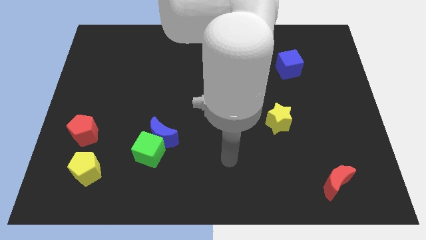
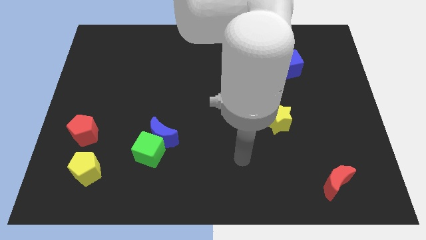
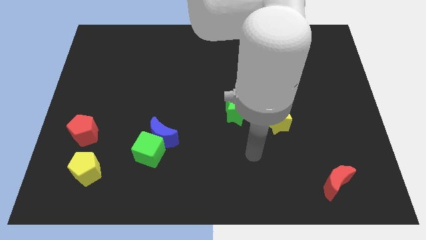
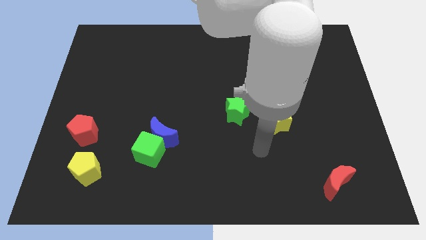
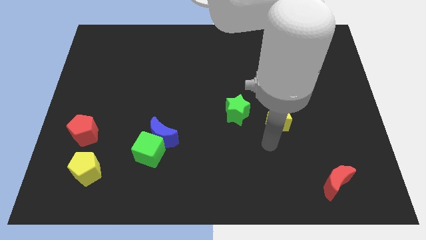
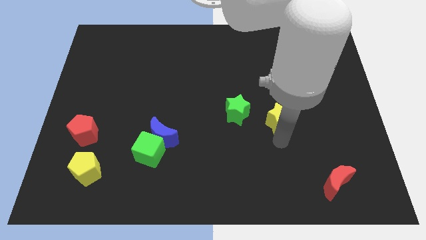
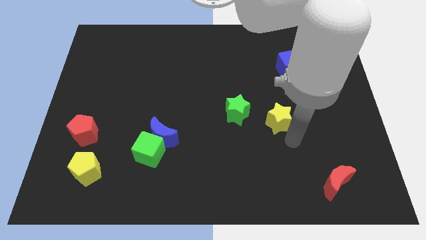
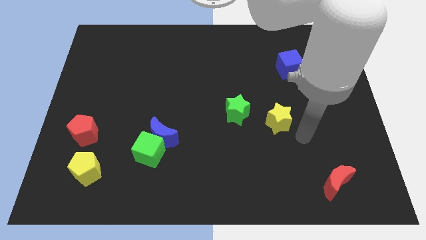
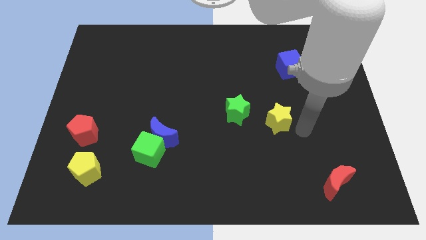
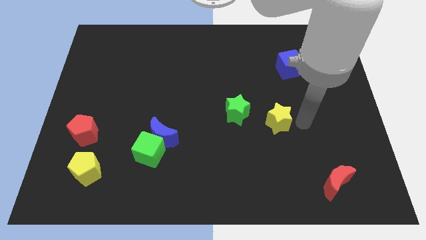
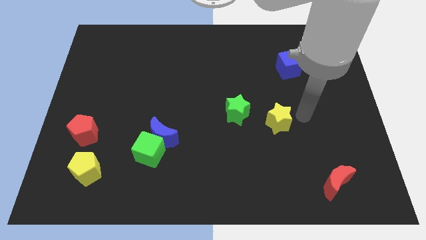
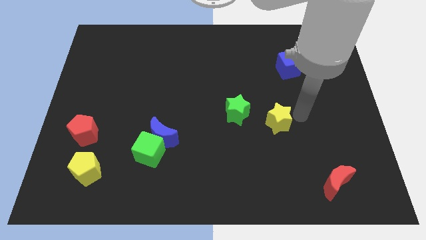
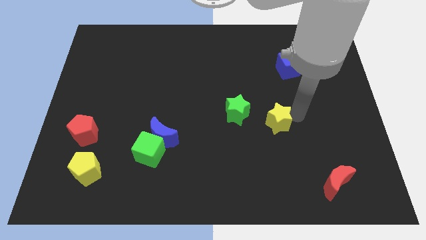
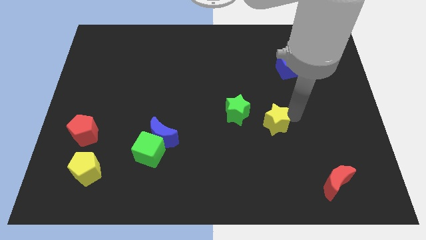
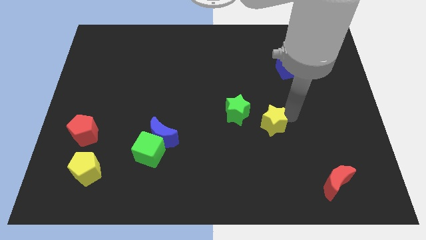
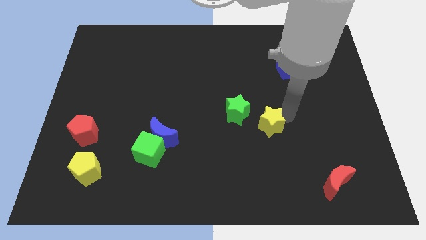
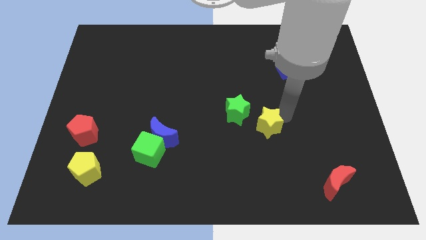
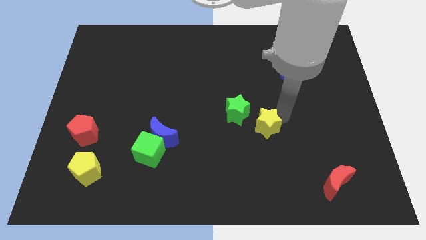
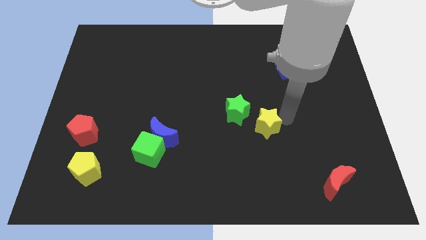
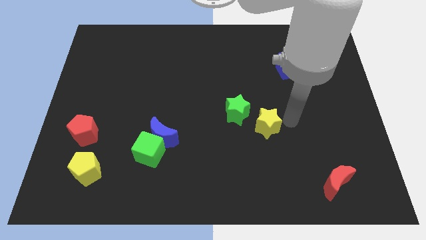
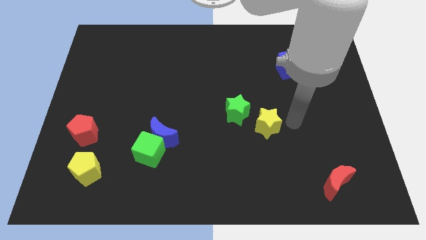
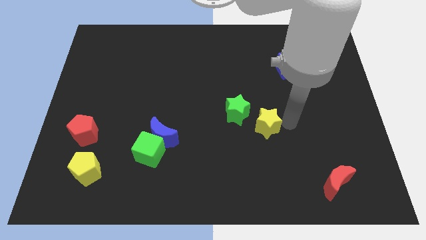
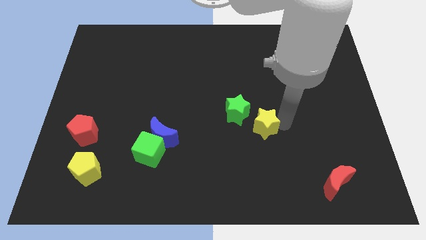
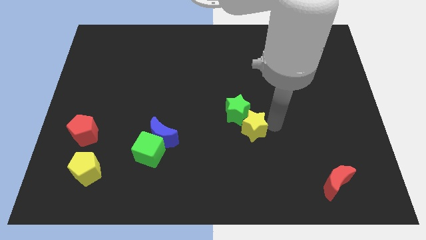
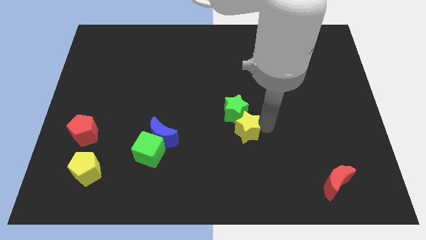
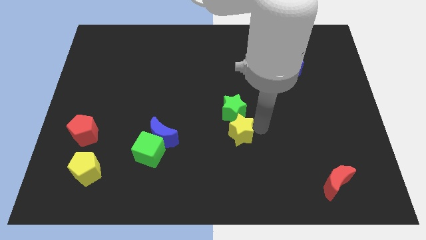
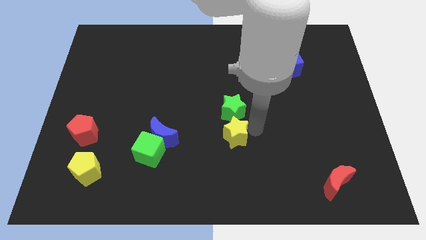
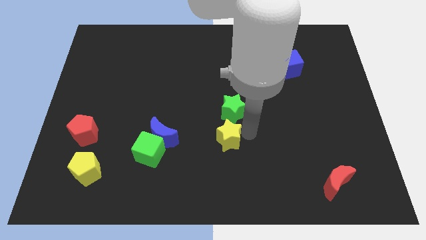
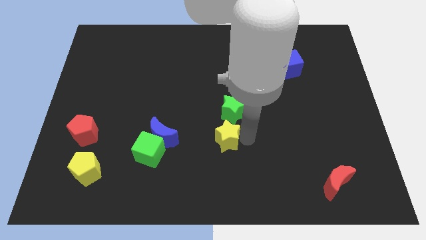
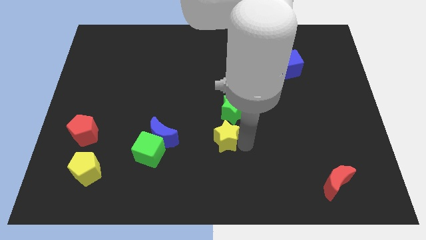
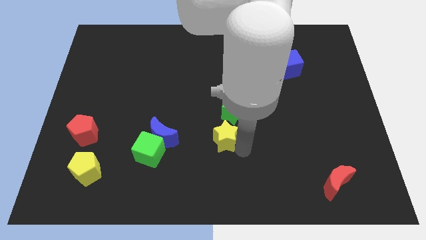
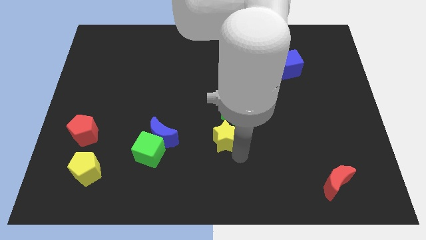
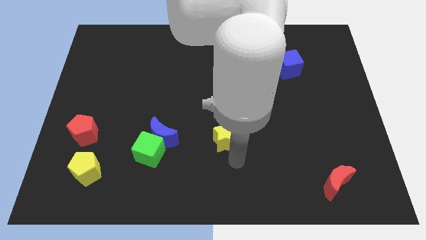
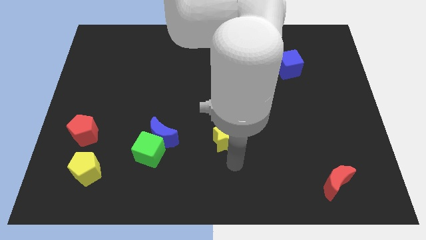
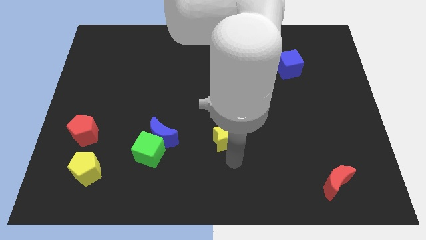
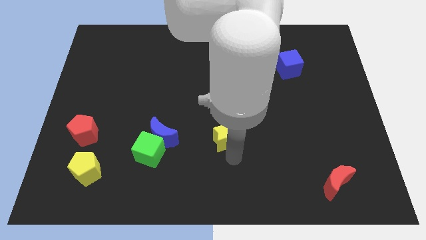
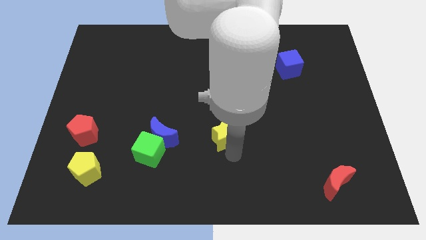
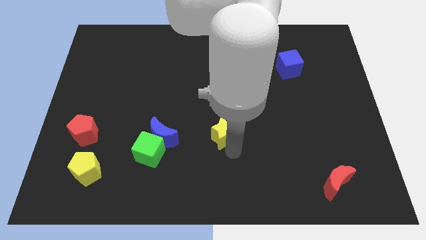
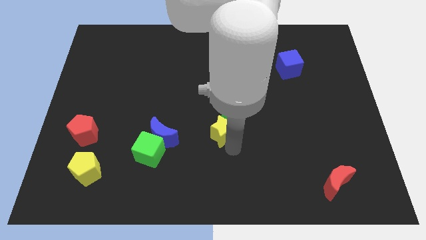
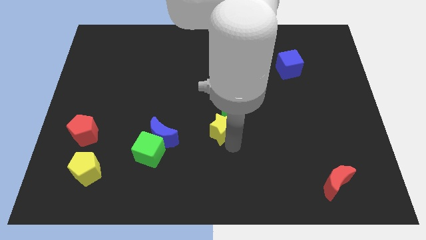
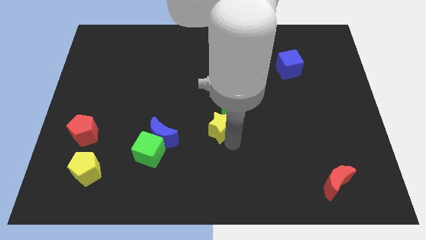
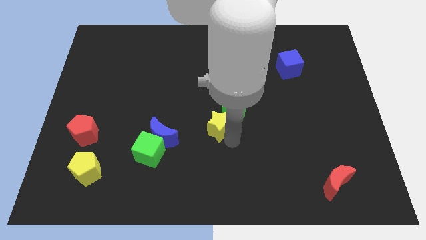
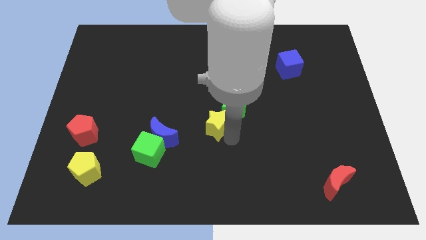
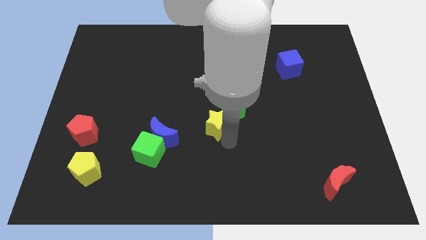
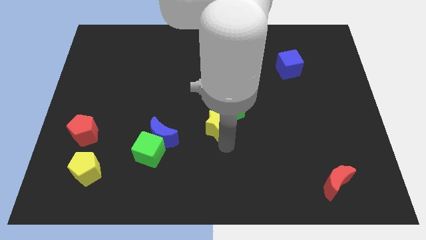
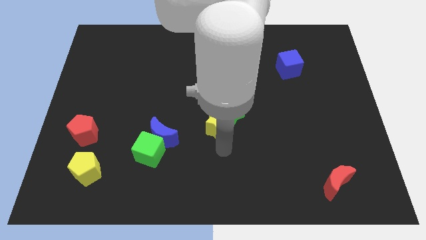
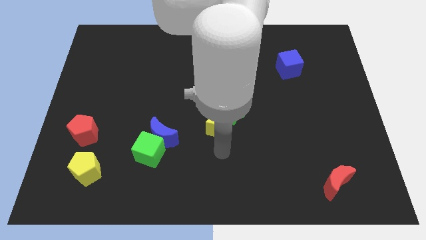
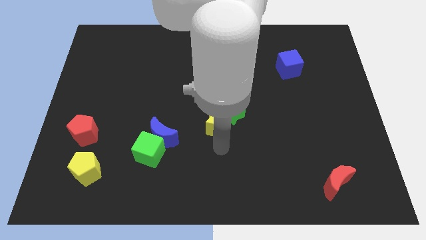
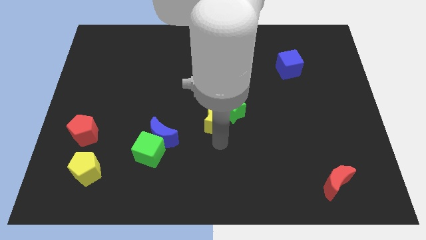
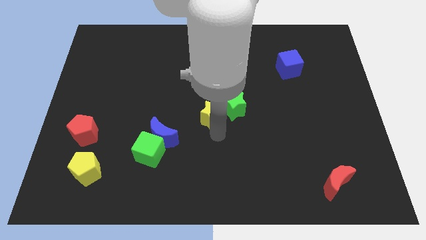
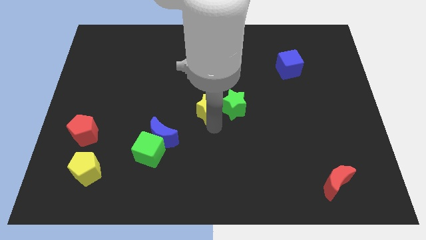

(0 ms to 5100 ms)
move the yellow star diagonally up and to the left of the green star

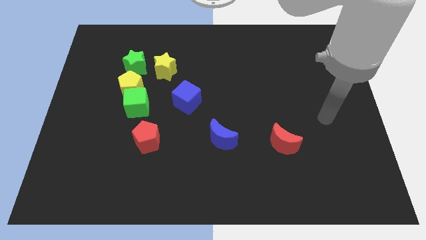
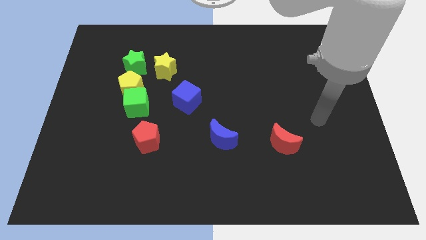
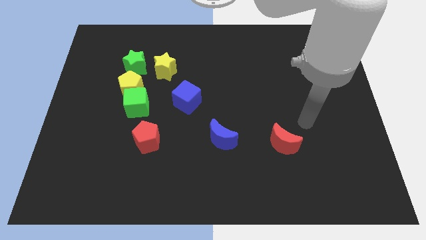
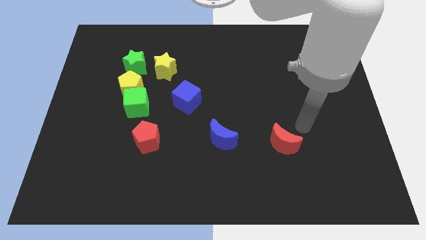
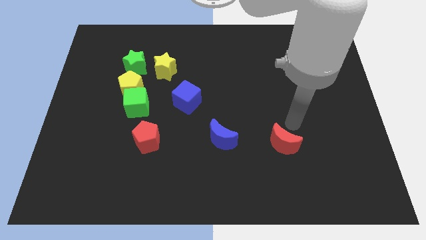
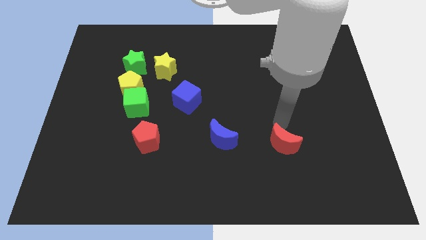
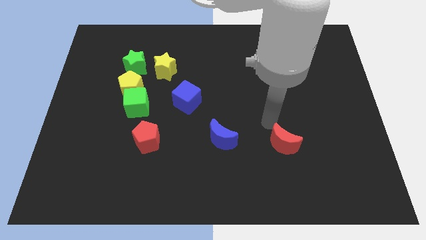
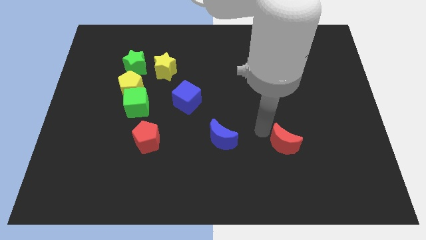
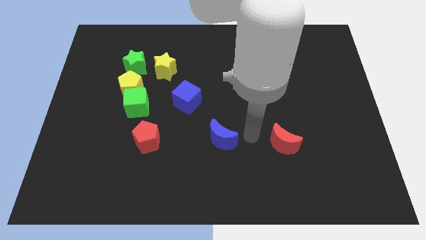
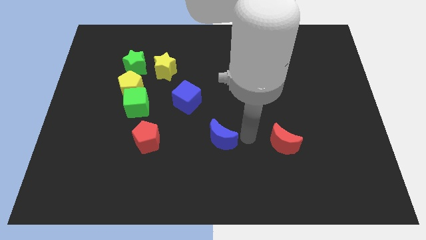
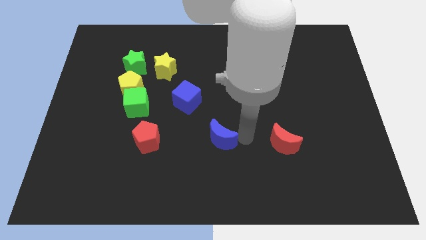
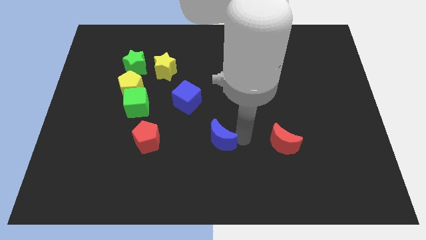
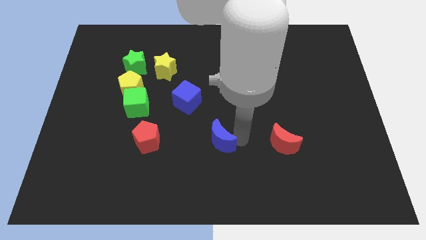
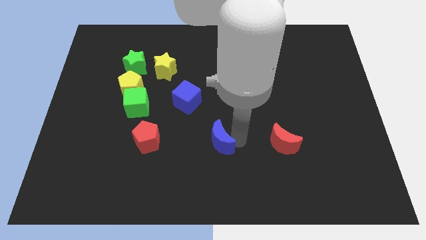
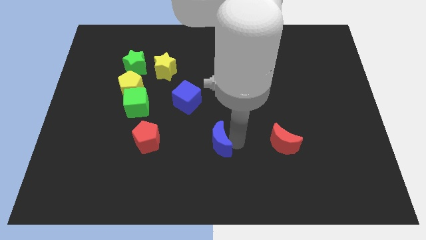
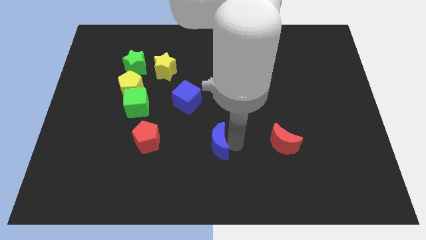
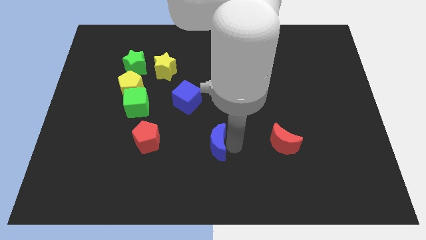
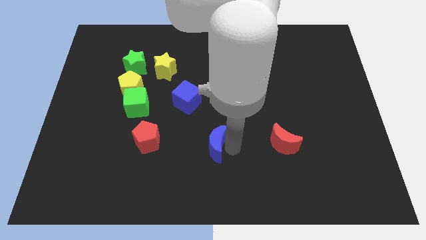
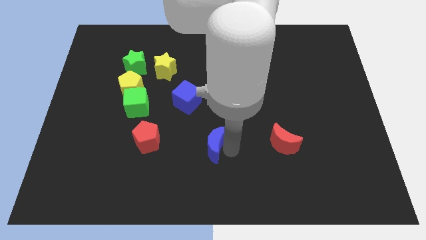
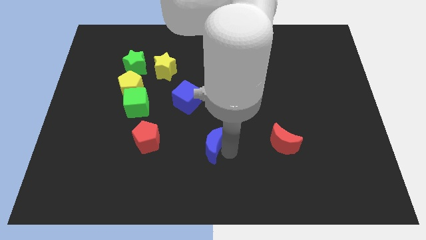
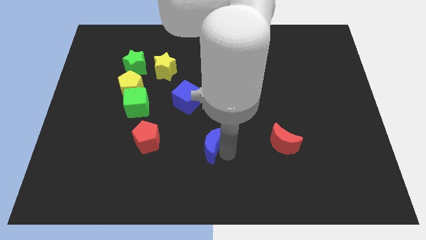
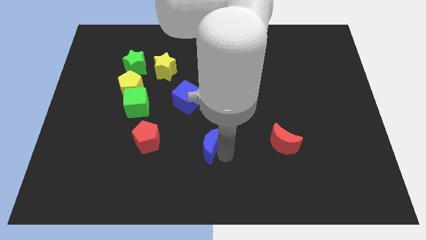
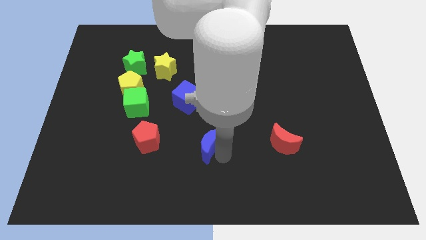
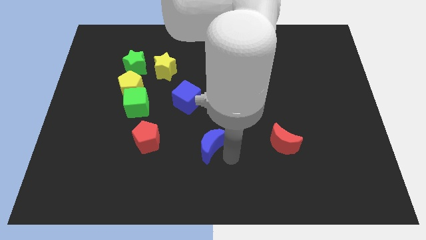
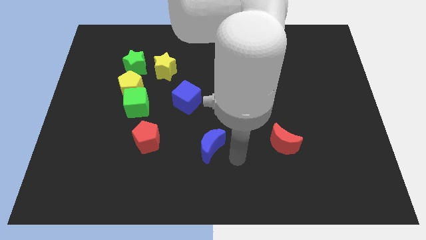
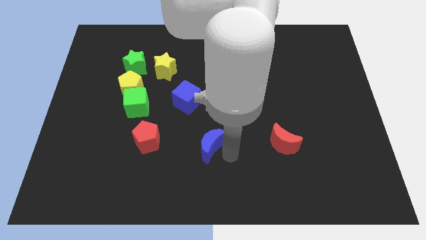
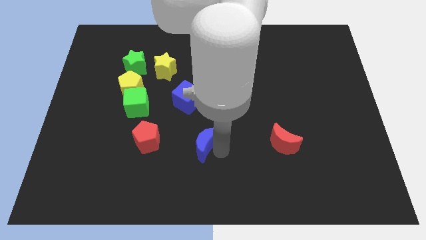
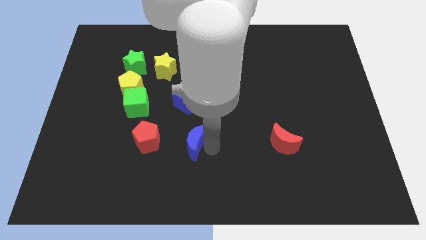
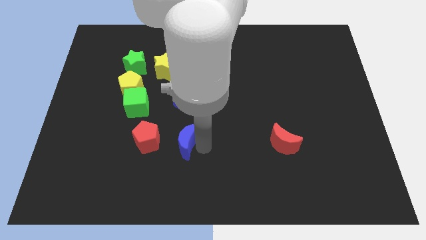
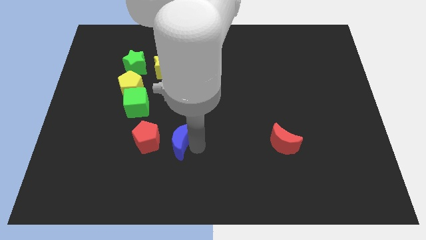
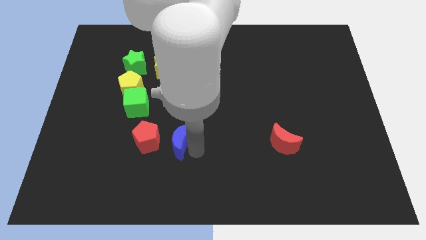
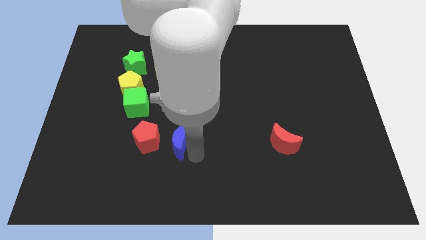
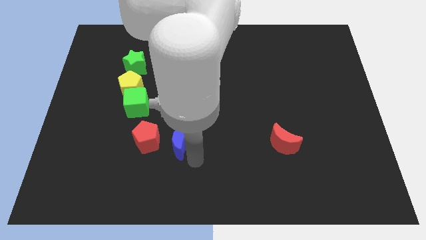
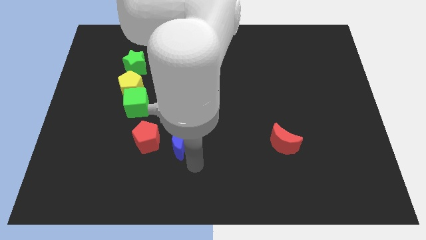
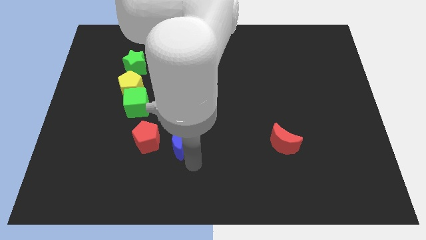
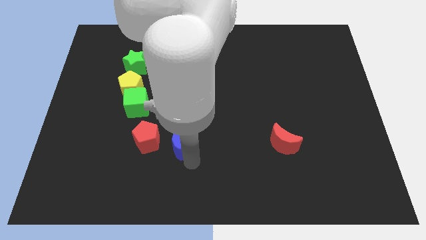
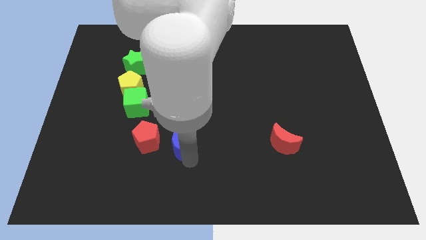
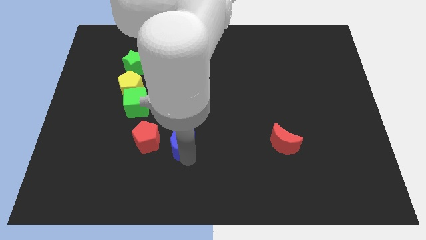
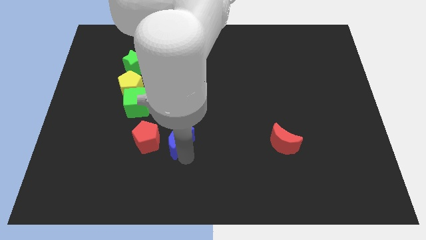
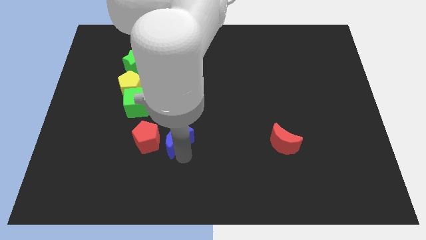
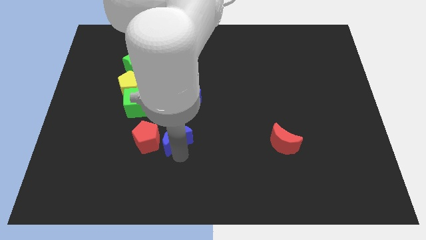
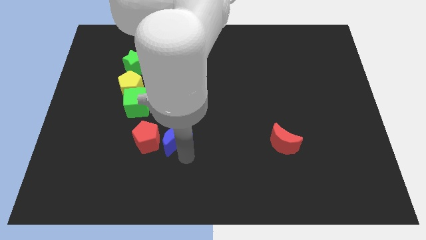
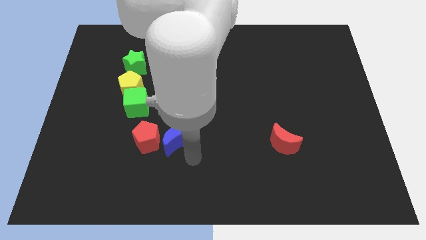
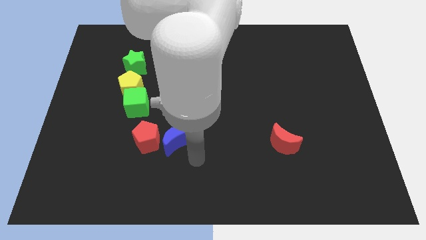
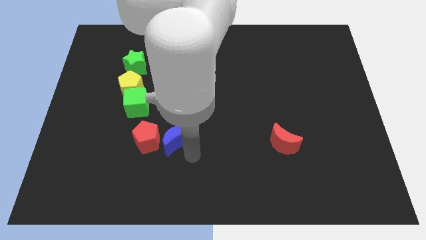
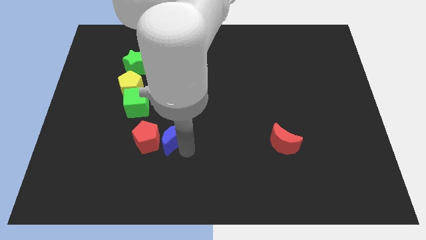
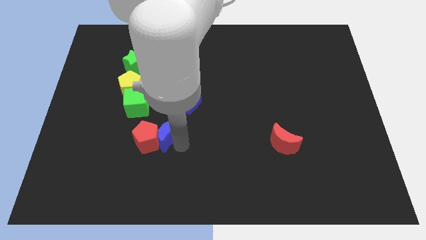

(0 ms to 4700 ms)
push the blue moon to the bottom right of the green cube
